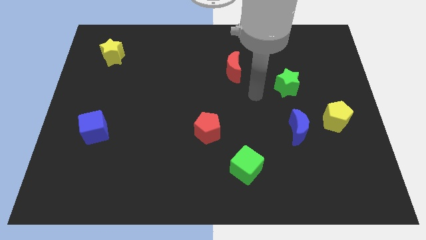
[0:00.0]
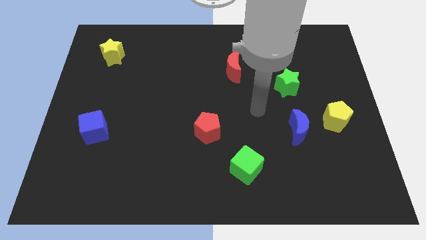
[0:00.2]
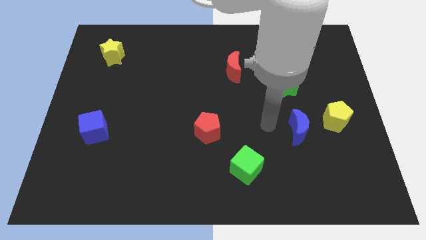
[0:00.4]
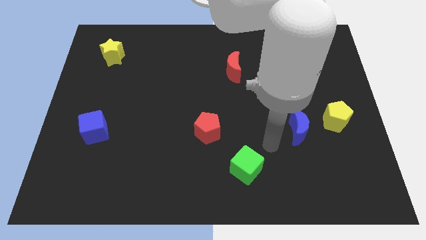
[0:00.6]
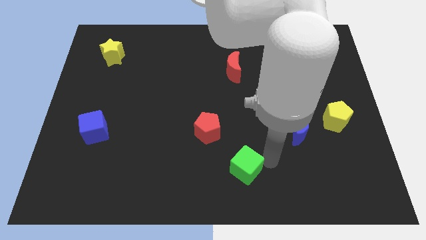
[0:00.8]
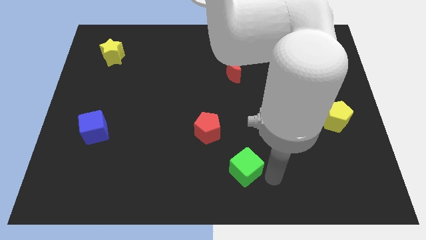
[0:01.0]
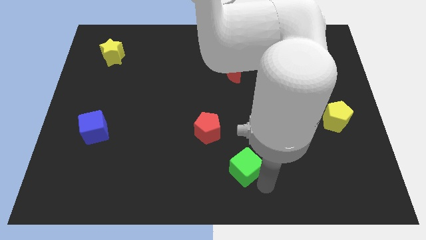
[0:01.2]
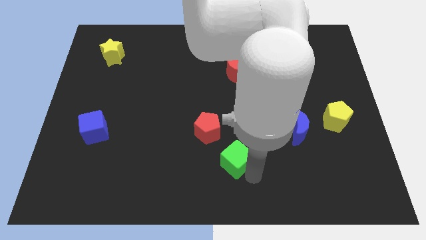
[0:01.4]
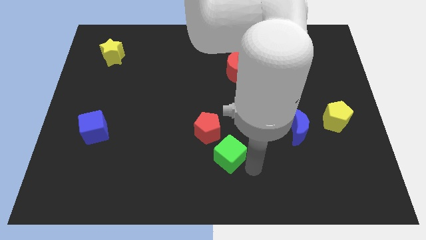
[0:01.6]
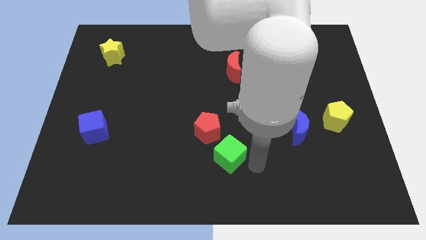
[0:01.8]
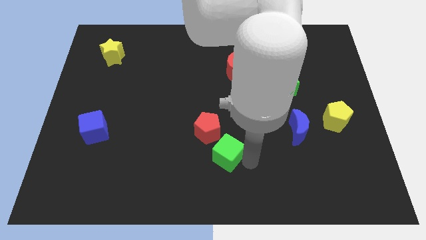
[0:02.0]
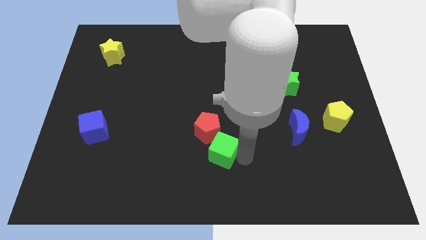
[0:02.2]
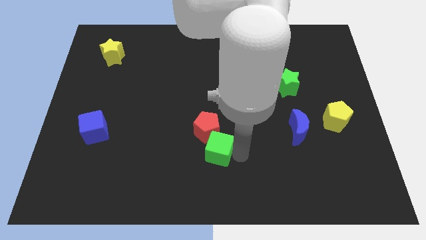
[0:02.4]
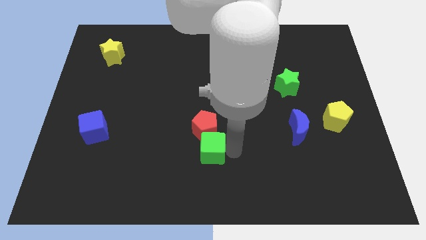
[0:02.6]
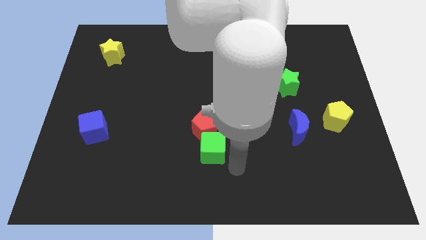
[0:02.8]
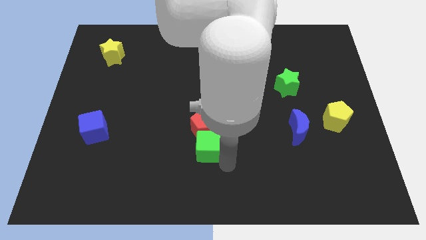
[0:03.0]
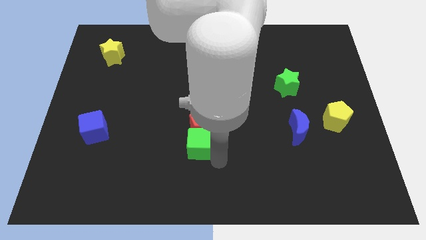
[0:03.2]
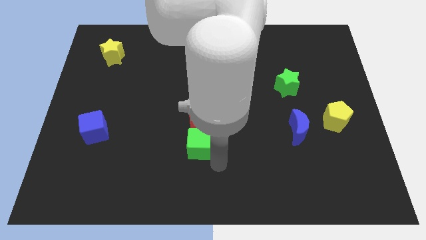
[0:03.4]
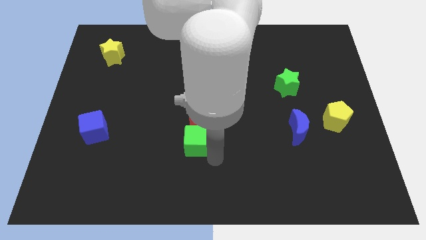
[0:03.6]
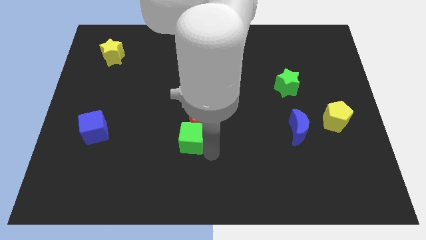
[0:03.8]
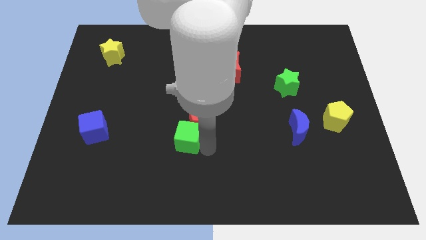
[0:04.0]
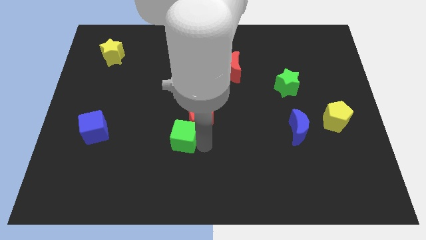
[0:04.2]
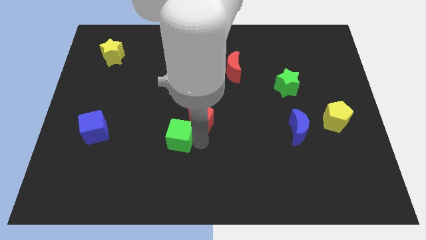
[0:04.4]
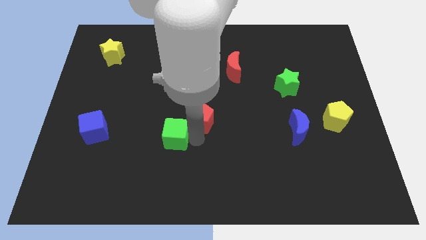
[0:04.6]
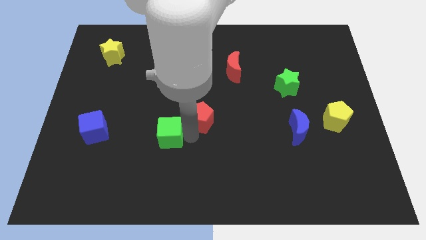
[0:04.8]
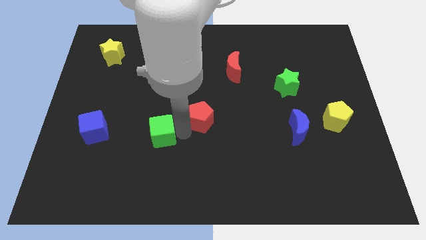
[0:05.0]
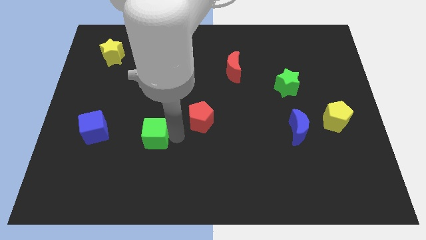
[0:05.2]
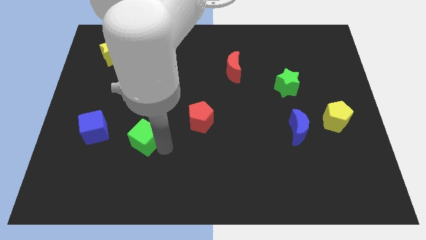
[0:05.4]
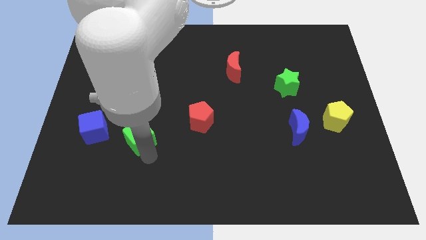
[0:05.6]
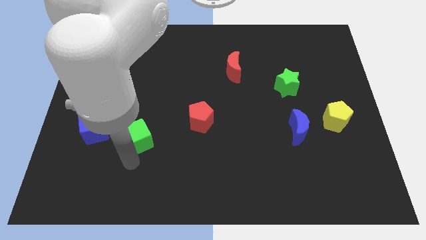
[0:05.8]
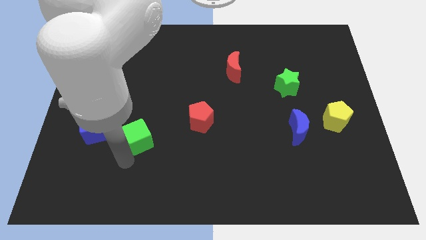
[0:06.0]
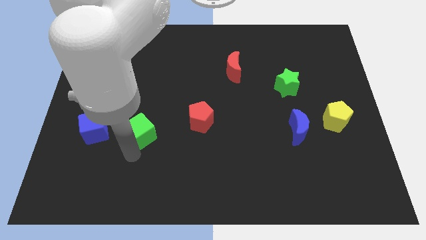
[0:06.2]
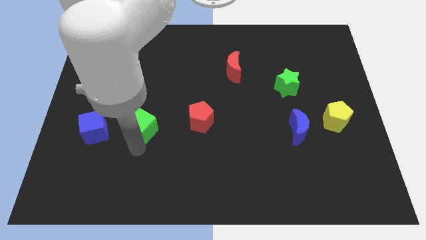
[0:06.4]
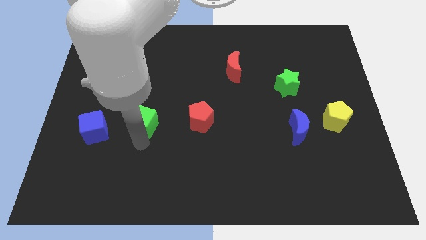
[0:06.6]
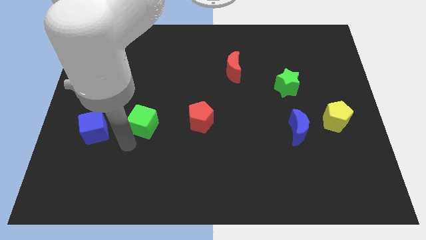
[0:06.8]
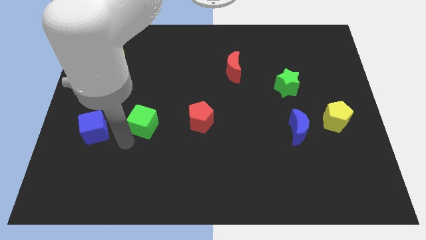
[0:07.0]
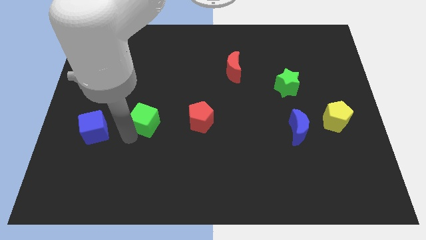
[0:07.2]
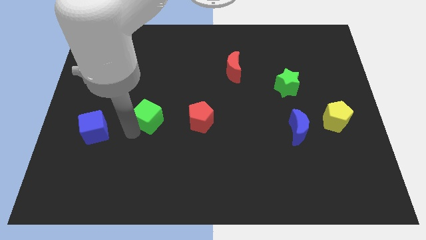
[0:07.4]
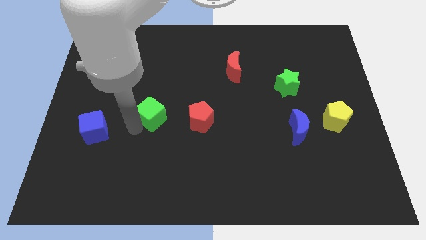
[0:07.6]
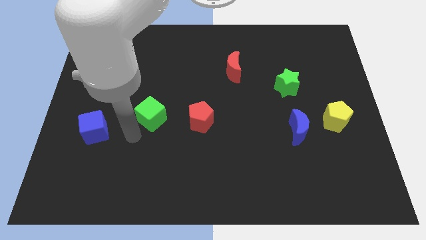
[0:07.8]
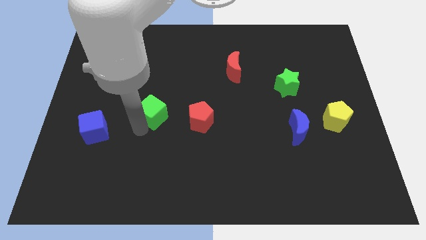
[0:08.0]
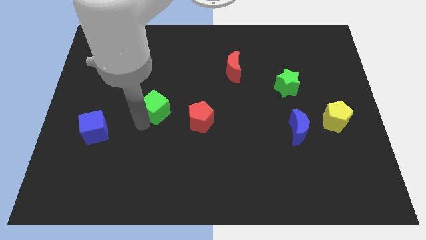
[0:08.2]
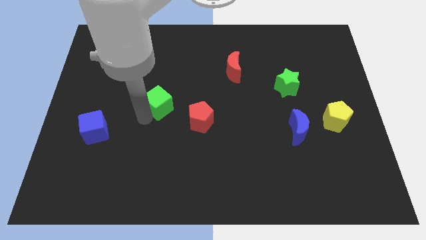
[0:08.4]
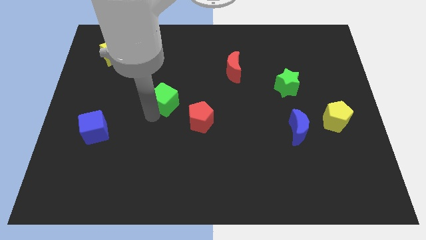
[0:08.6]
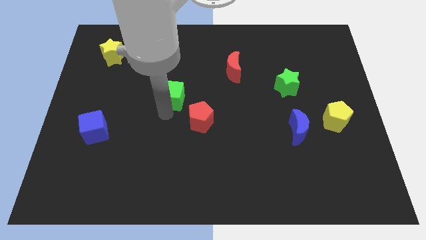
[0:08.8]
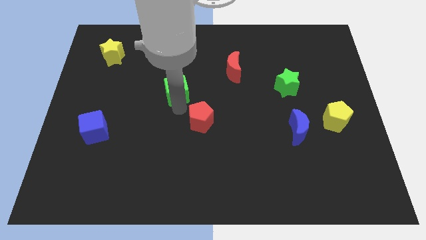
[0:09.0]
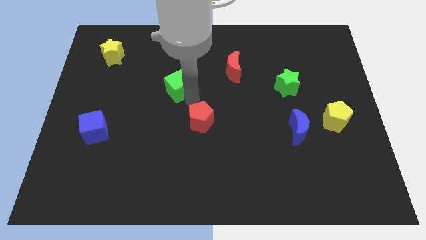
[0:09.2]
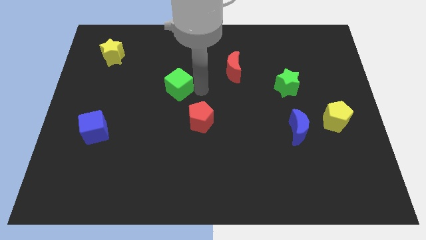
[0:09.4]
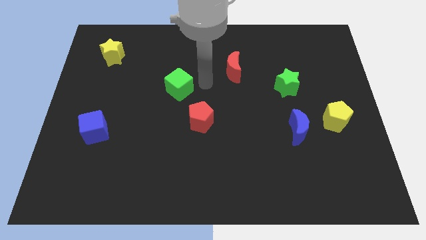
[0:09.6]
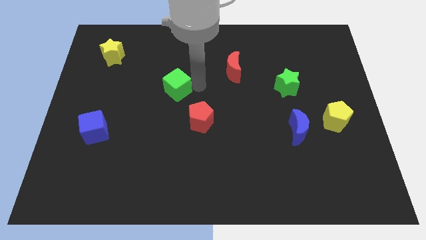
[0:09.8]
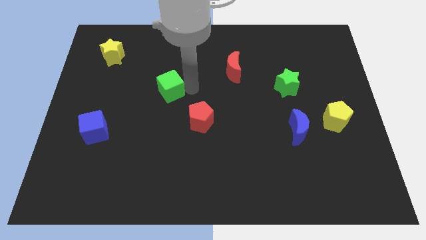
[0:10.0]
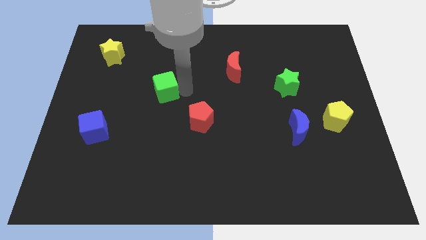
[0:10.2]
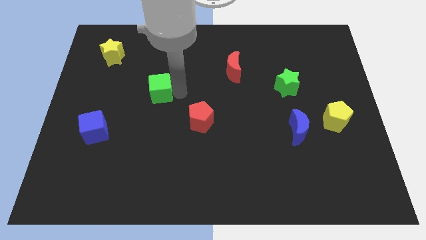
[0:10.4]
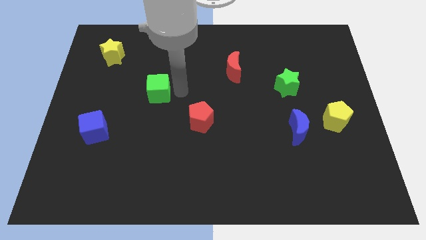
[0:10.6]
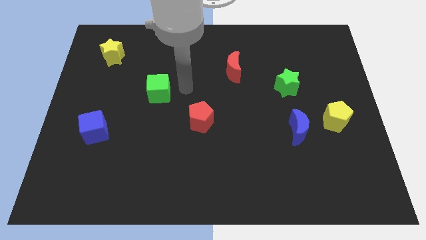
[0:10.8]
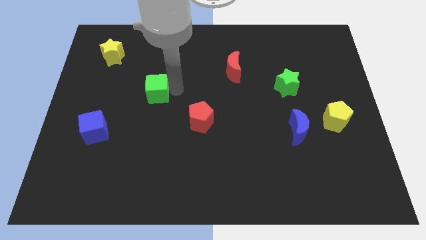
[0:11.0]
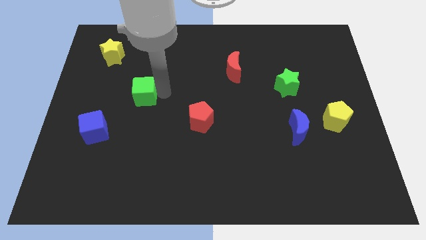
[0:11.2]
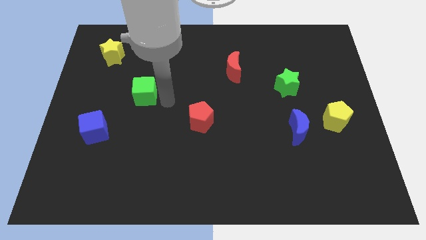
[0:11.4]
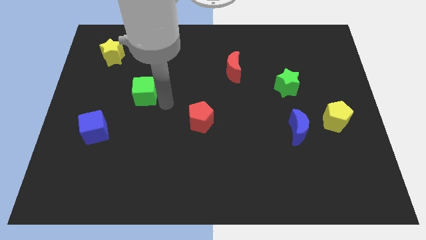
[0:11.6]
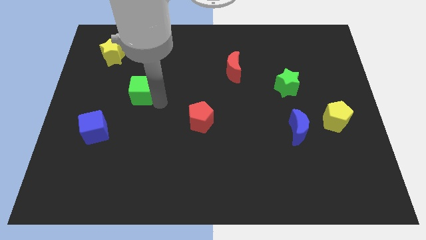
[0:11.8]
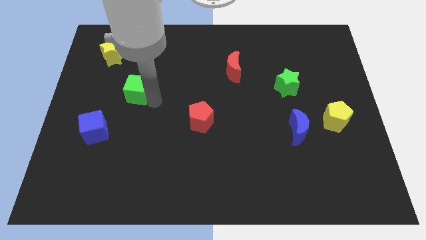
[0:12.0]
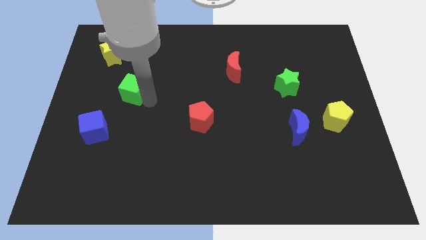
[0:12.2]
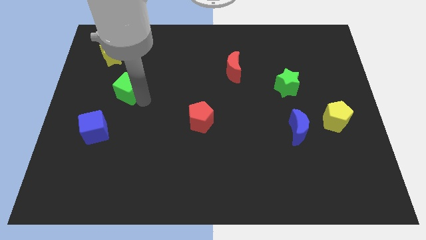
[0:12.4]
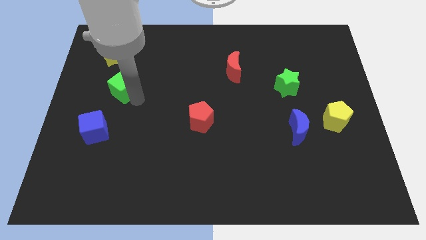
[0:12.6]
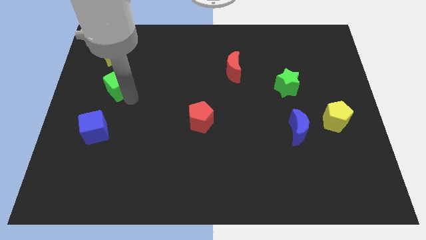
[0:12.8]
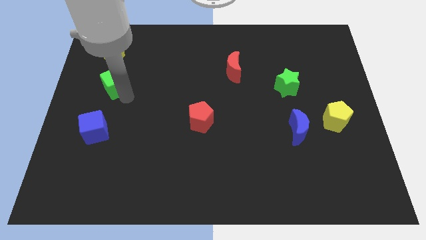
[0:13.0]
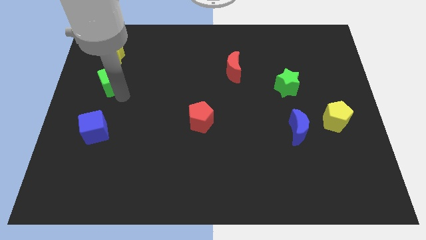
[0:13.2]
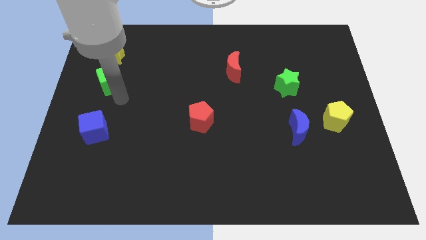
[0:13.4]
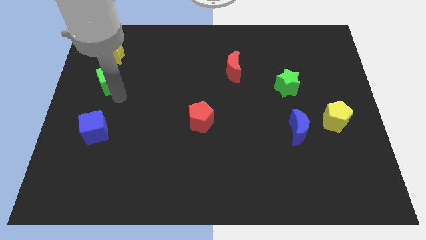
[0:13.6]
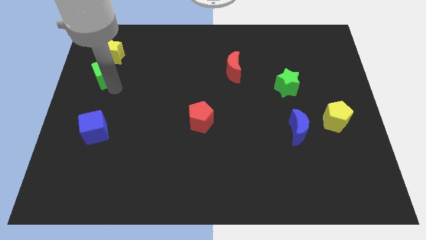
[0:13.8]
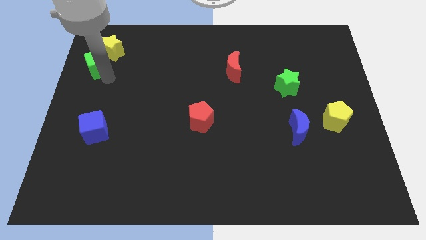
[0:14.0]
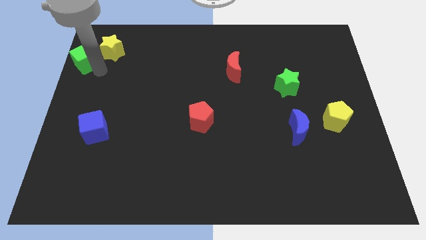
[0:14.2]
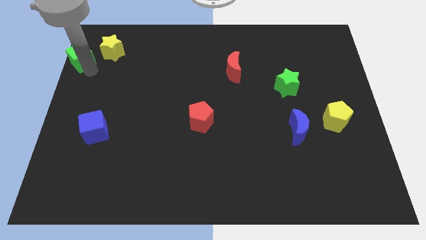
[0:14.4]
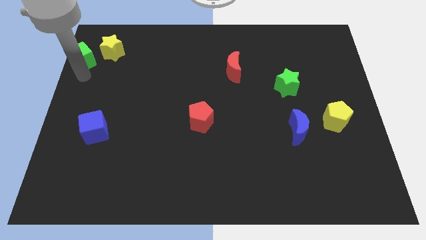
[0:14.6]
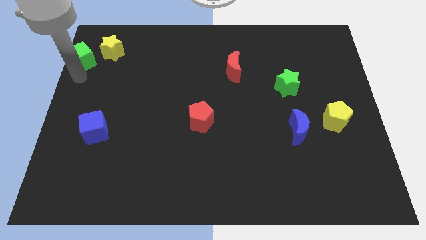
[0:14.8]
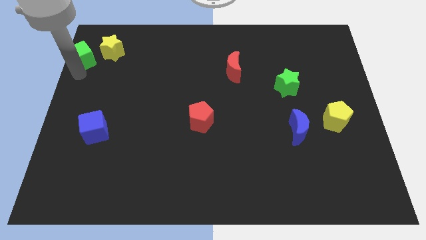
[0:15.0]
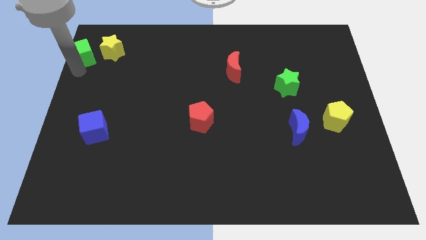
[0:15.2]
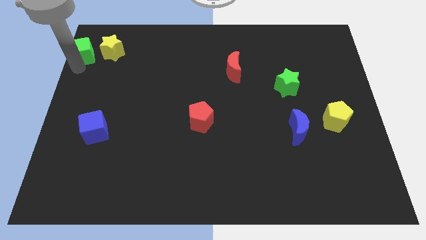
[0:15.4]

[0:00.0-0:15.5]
push the green cube to the top left of the board
